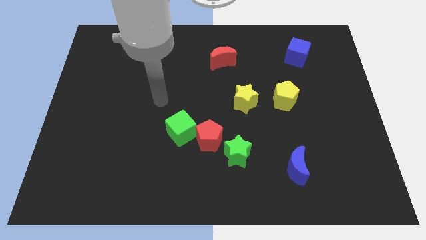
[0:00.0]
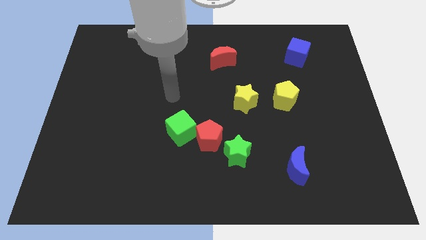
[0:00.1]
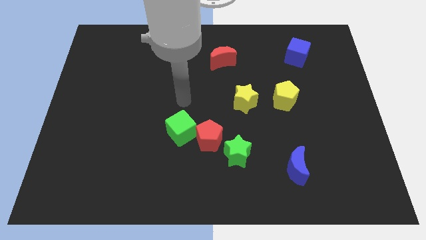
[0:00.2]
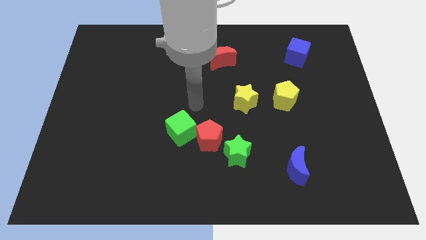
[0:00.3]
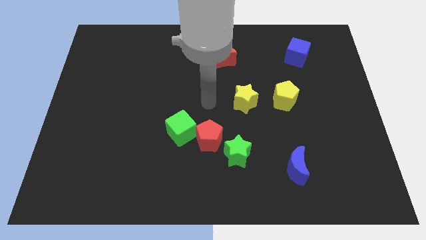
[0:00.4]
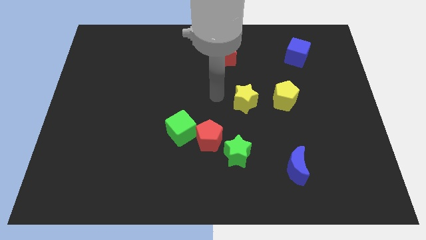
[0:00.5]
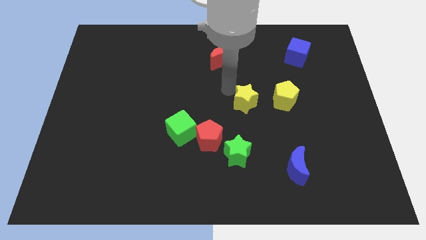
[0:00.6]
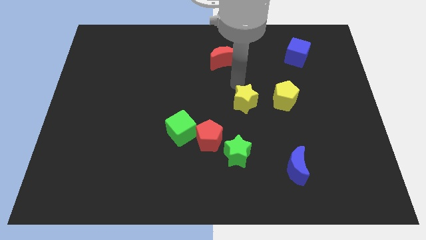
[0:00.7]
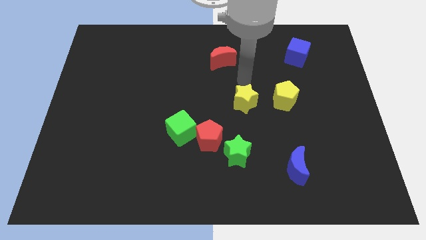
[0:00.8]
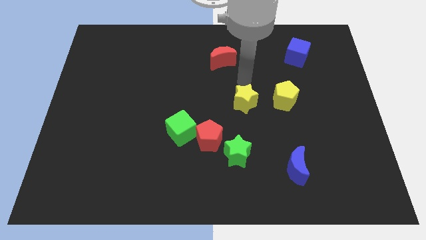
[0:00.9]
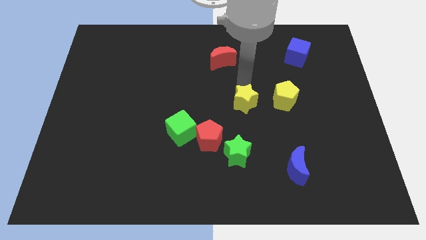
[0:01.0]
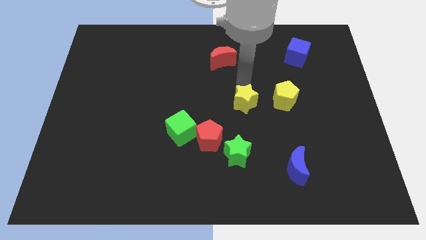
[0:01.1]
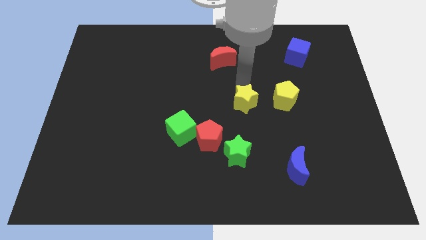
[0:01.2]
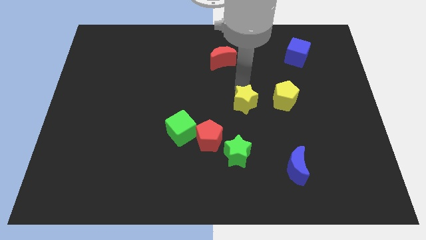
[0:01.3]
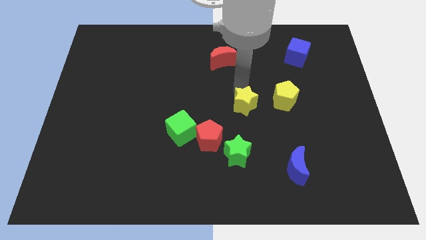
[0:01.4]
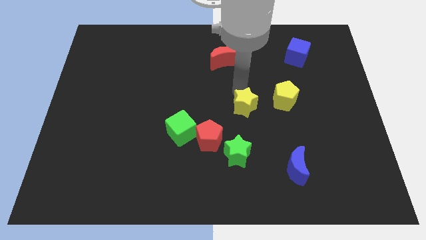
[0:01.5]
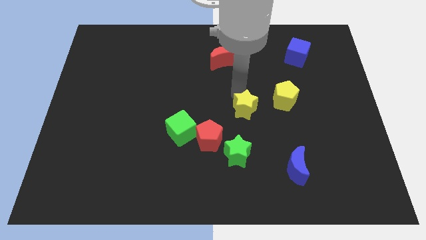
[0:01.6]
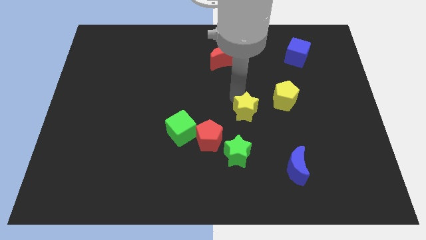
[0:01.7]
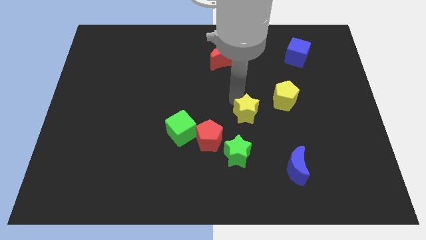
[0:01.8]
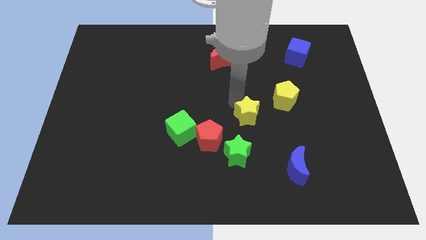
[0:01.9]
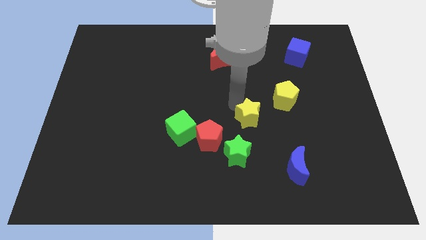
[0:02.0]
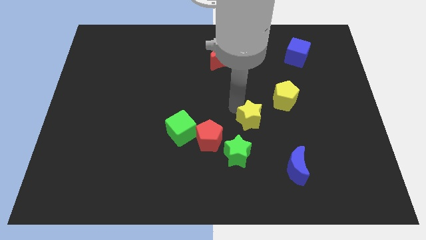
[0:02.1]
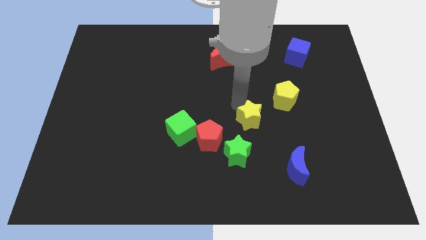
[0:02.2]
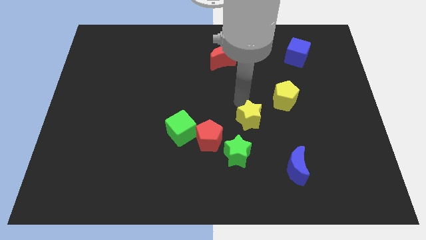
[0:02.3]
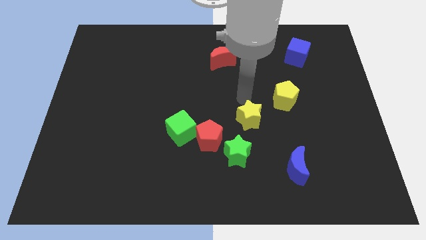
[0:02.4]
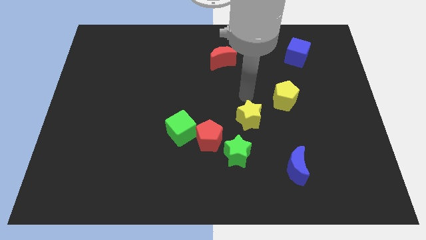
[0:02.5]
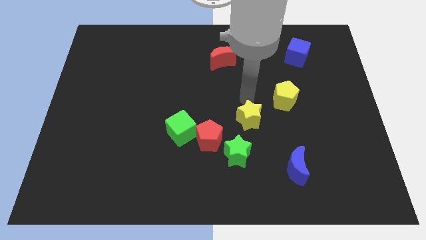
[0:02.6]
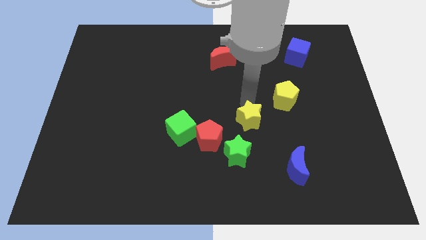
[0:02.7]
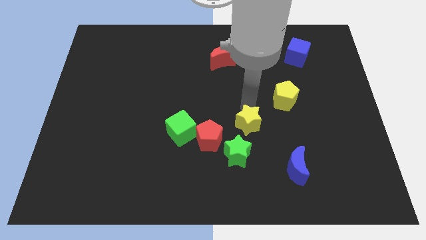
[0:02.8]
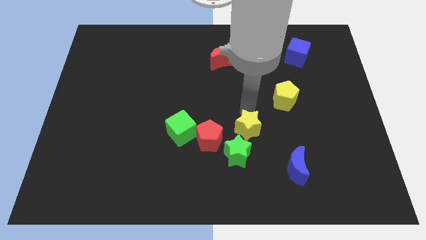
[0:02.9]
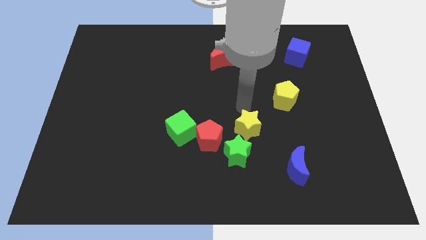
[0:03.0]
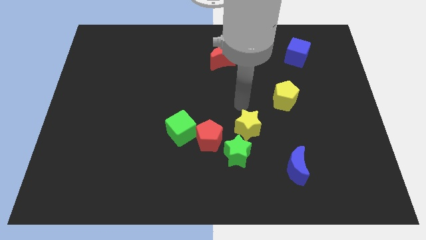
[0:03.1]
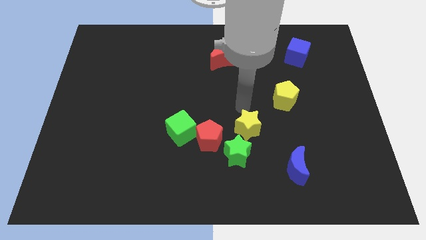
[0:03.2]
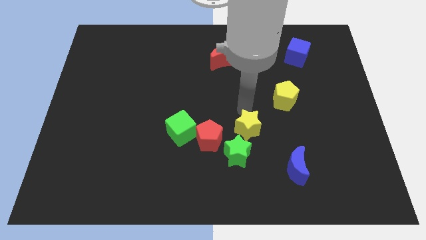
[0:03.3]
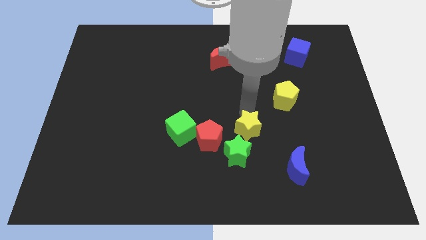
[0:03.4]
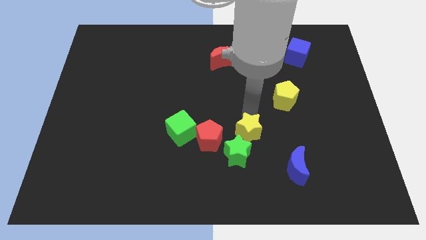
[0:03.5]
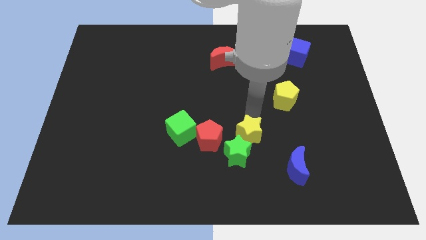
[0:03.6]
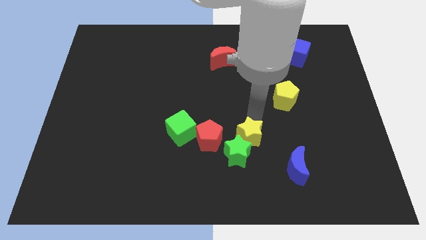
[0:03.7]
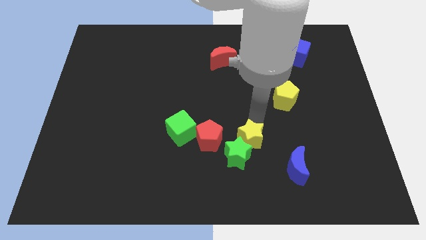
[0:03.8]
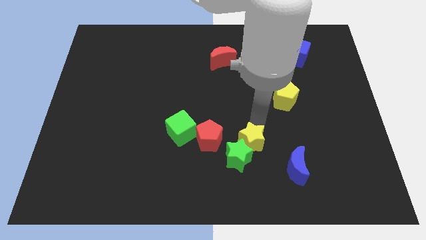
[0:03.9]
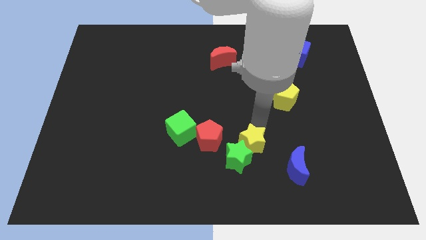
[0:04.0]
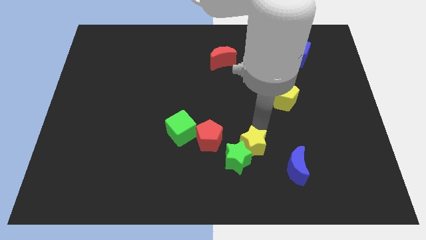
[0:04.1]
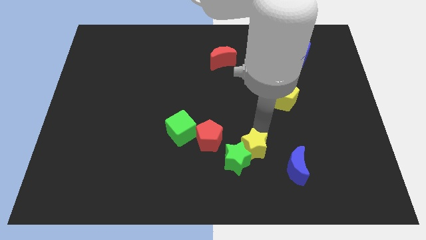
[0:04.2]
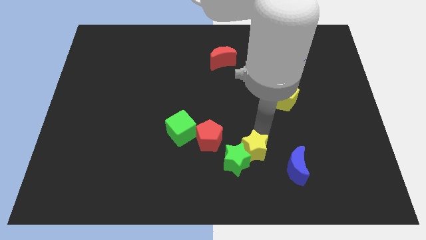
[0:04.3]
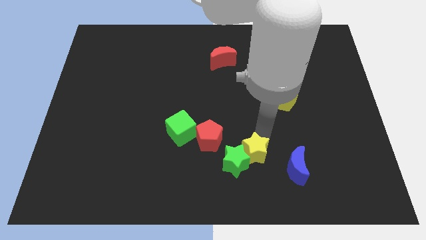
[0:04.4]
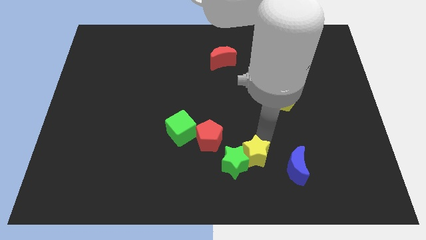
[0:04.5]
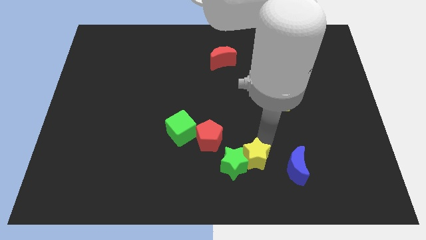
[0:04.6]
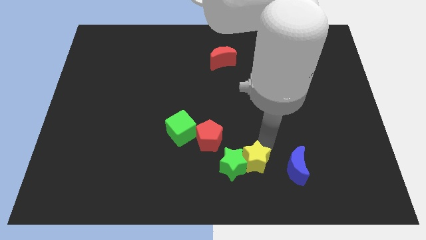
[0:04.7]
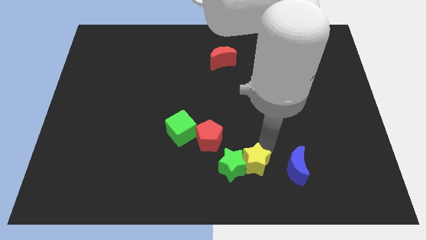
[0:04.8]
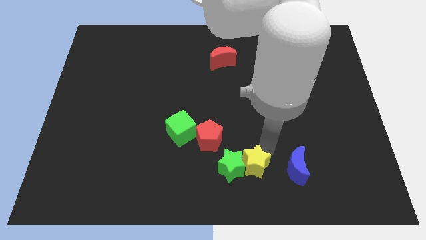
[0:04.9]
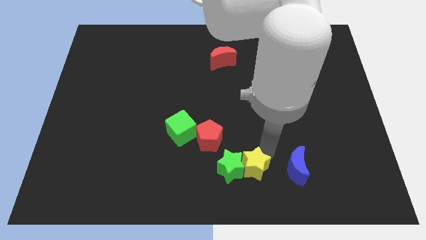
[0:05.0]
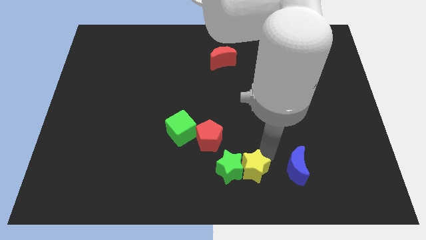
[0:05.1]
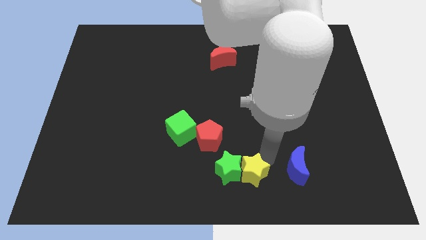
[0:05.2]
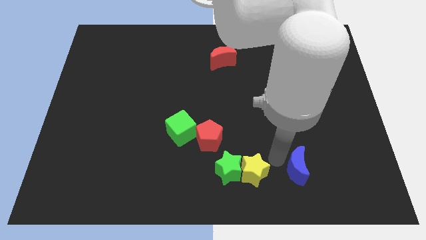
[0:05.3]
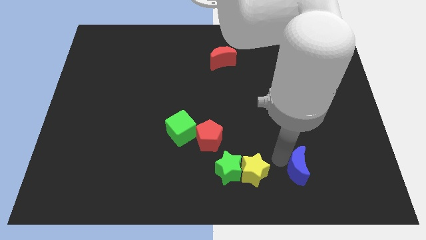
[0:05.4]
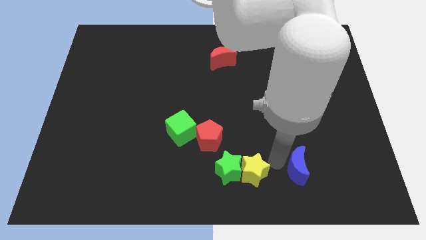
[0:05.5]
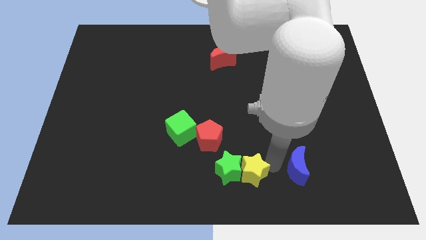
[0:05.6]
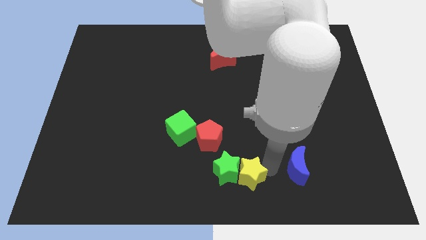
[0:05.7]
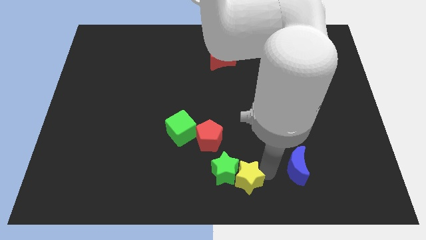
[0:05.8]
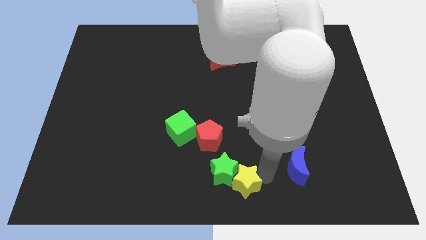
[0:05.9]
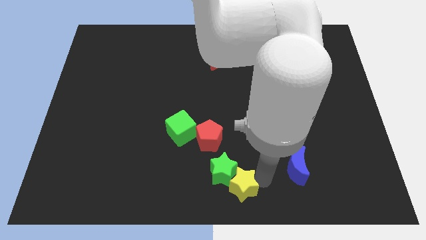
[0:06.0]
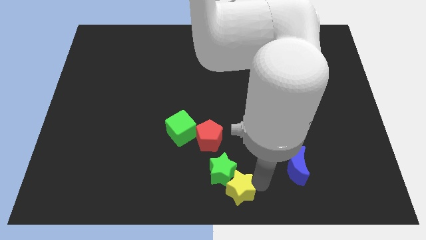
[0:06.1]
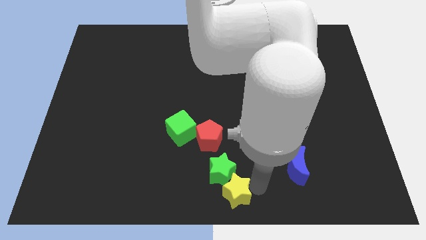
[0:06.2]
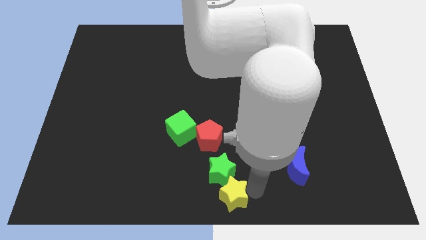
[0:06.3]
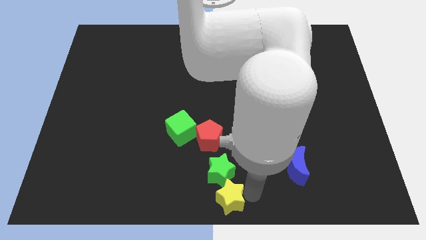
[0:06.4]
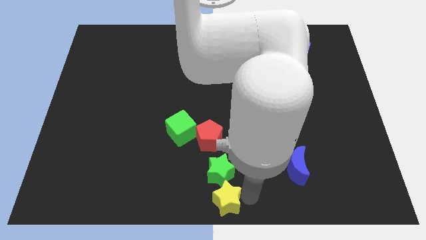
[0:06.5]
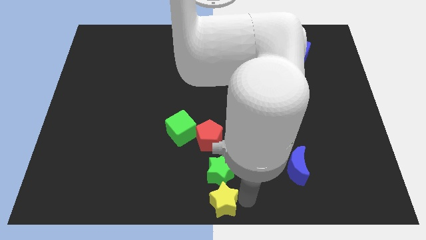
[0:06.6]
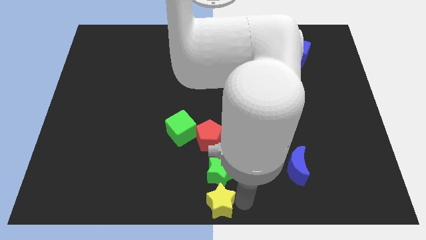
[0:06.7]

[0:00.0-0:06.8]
move the yellow star diagonally down and to the left of the green star

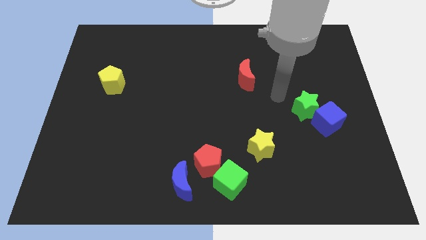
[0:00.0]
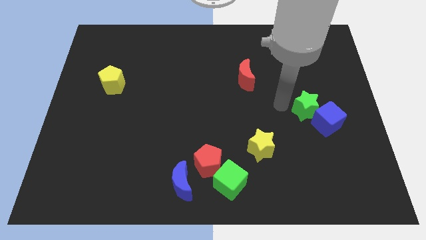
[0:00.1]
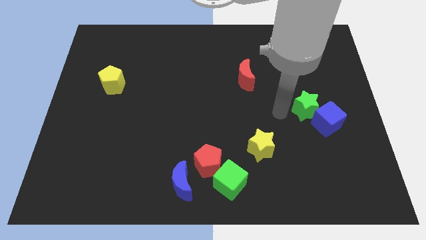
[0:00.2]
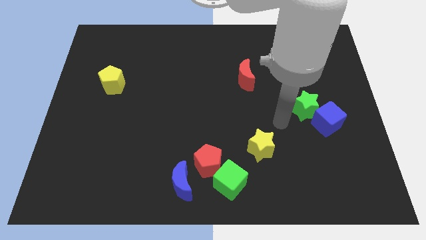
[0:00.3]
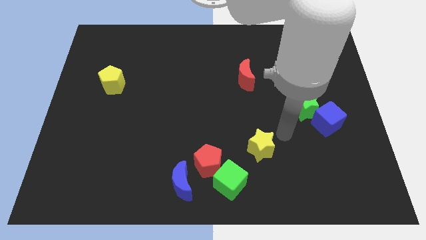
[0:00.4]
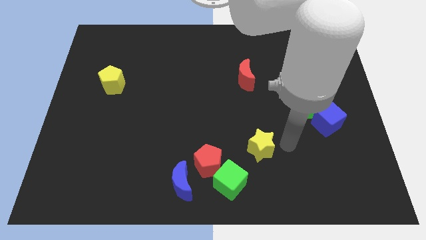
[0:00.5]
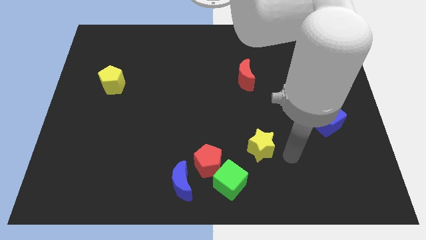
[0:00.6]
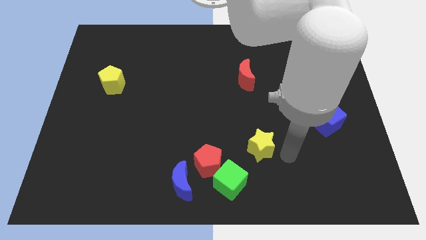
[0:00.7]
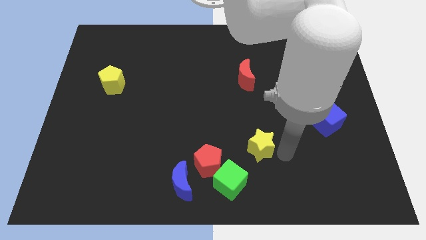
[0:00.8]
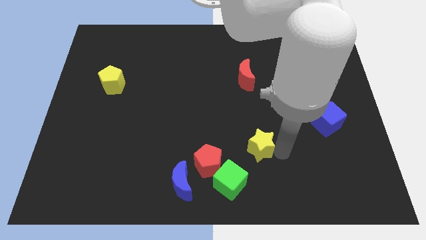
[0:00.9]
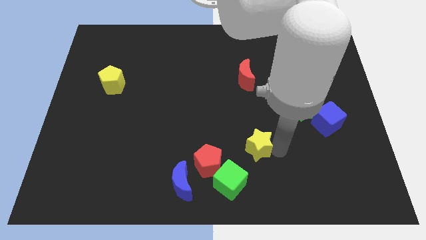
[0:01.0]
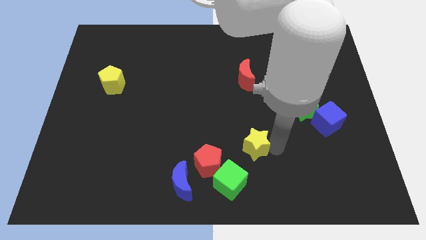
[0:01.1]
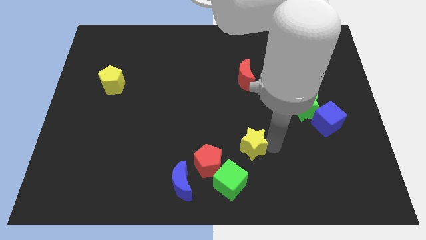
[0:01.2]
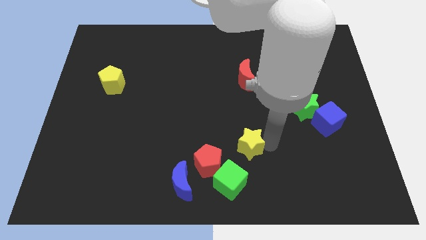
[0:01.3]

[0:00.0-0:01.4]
slide the yellow star to the top of the green cube
